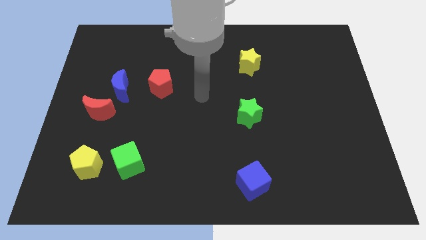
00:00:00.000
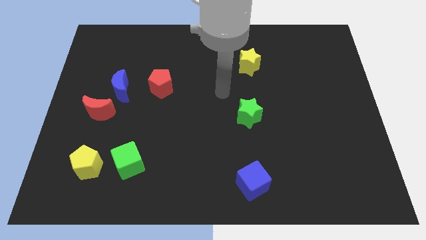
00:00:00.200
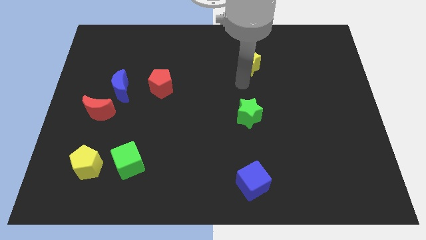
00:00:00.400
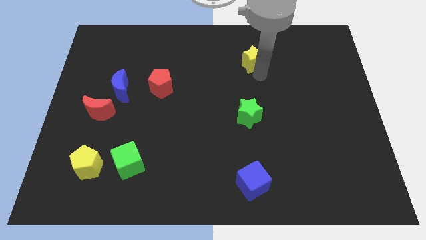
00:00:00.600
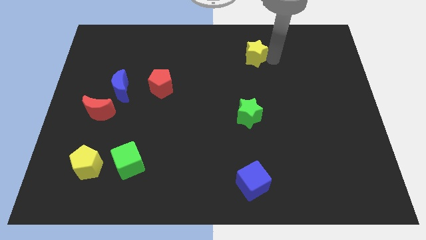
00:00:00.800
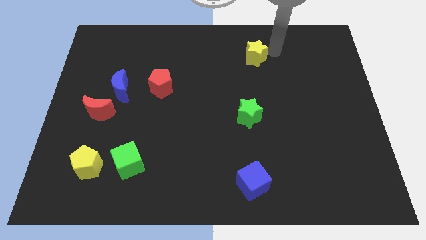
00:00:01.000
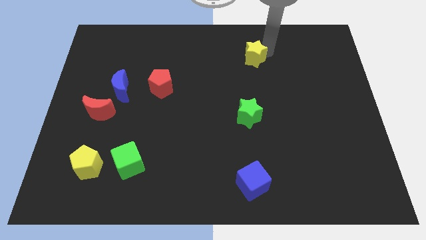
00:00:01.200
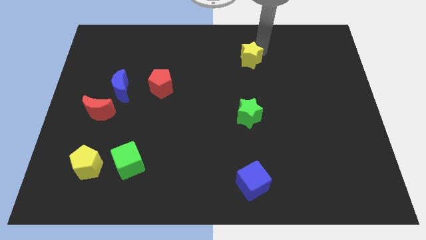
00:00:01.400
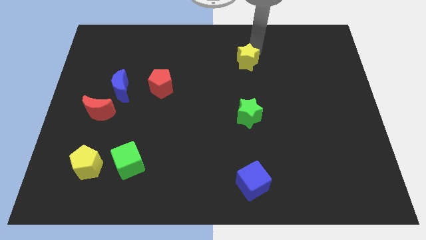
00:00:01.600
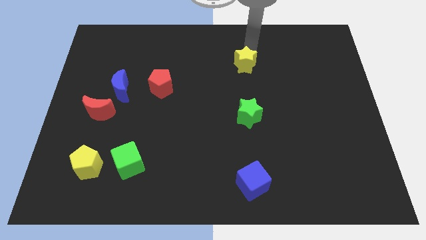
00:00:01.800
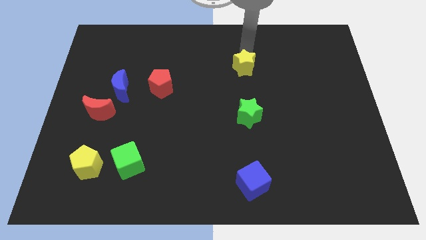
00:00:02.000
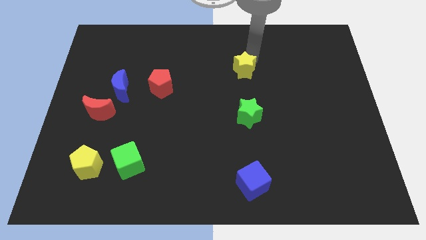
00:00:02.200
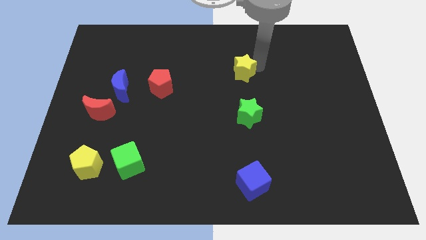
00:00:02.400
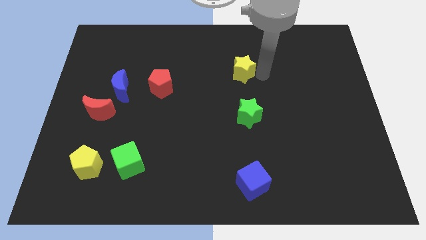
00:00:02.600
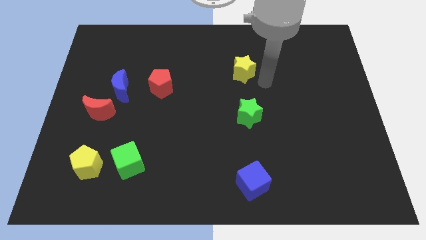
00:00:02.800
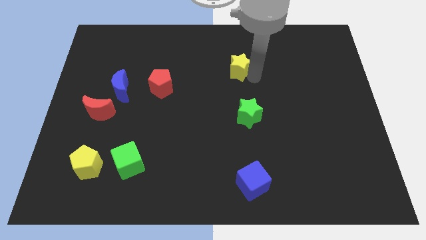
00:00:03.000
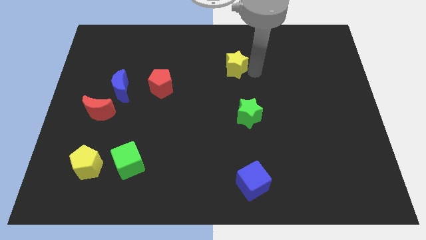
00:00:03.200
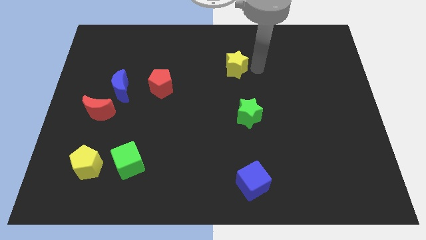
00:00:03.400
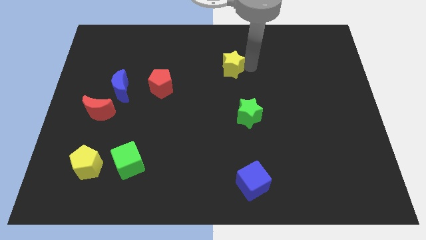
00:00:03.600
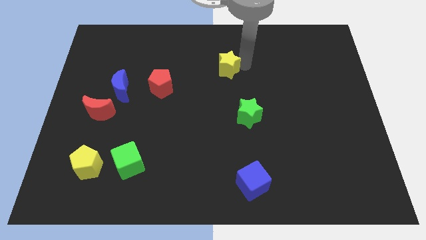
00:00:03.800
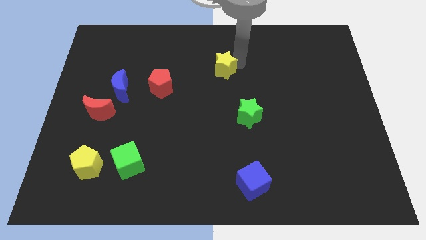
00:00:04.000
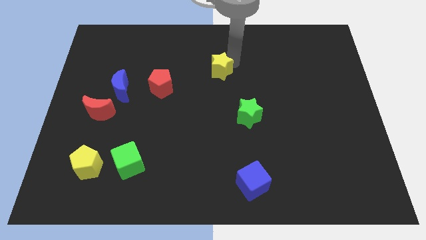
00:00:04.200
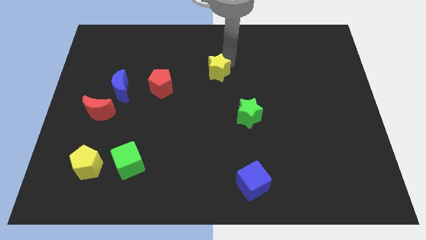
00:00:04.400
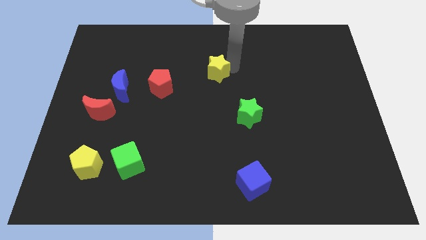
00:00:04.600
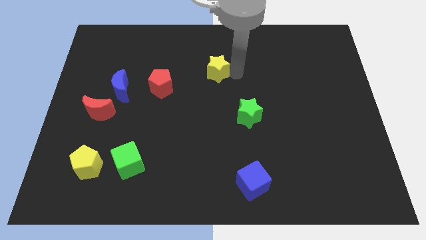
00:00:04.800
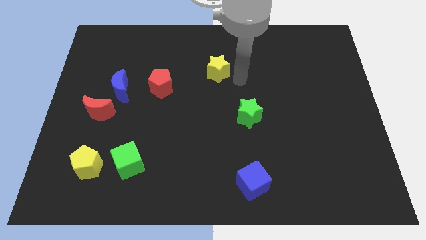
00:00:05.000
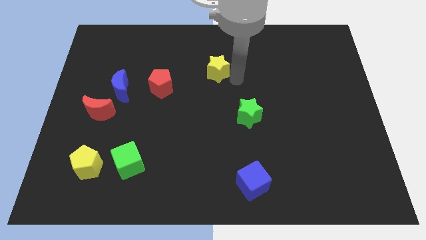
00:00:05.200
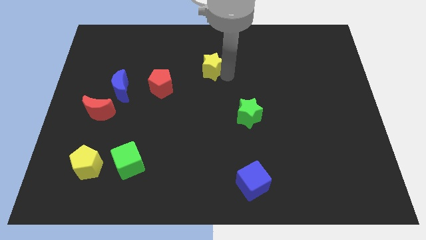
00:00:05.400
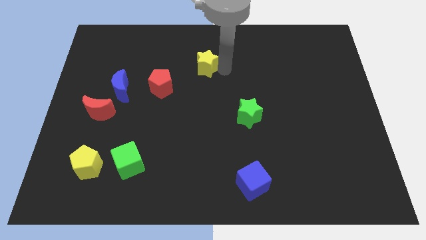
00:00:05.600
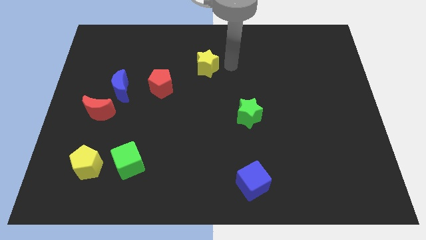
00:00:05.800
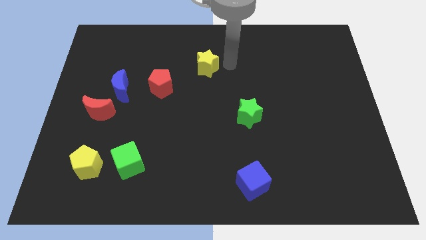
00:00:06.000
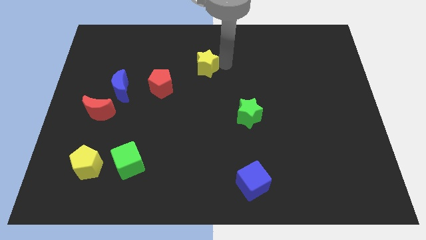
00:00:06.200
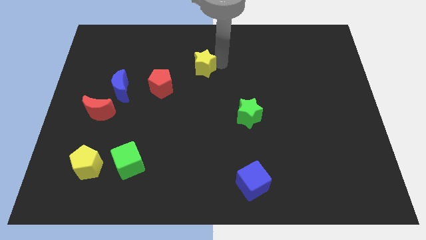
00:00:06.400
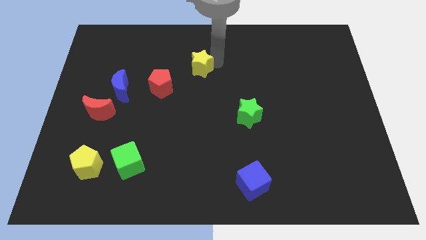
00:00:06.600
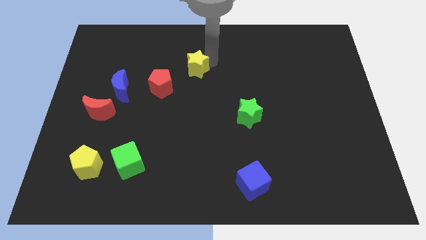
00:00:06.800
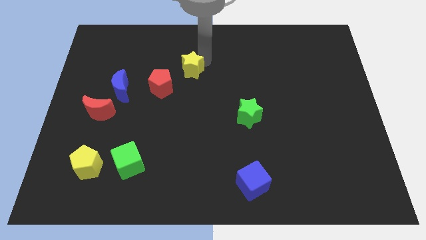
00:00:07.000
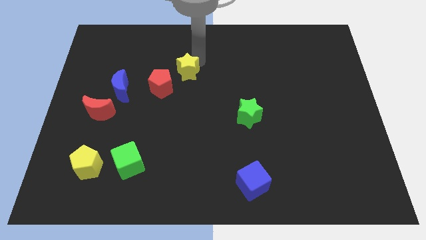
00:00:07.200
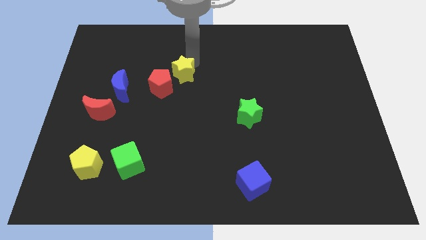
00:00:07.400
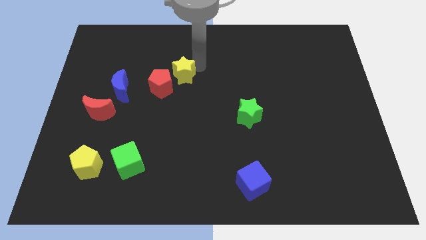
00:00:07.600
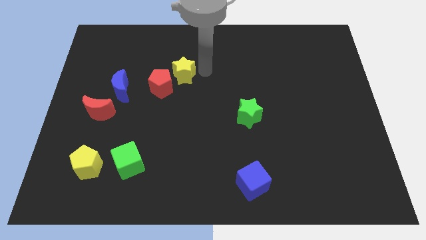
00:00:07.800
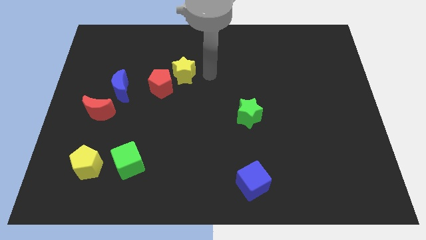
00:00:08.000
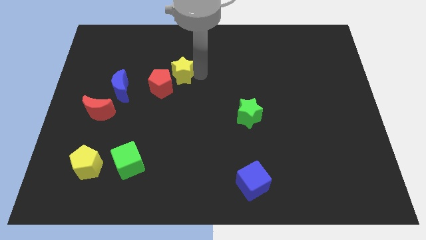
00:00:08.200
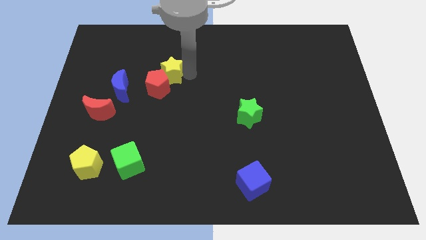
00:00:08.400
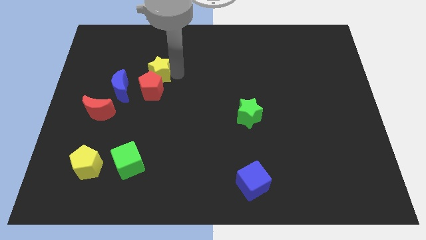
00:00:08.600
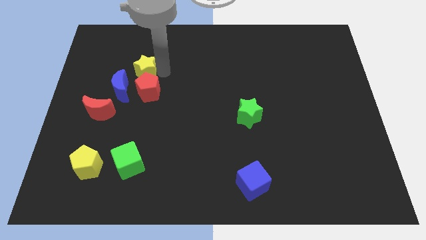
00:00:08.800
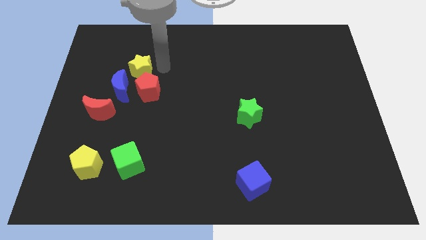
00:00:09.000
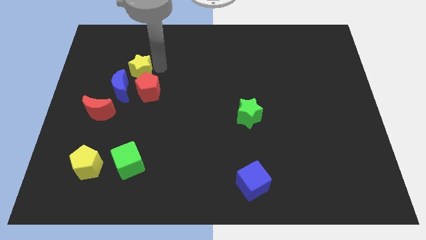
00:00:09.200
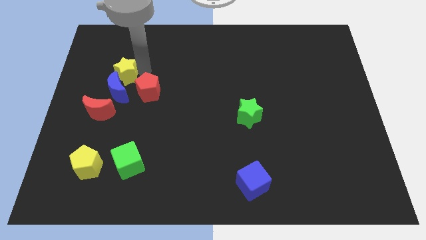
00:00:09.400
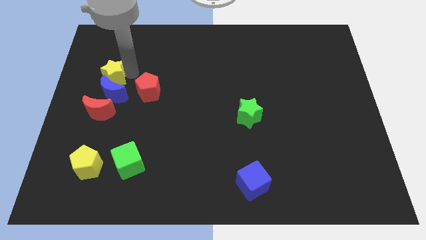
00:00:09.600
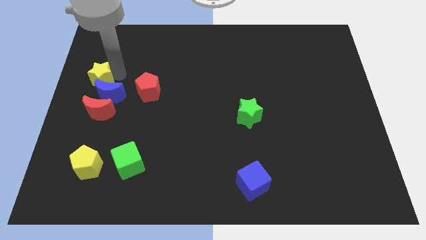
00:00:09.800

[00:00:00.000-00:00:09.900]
push the yellow star to the center left

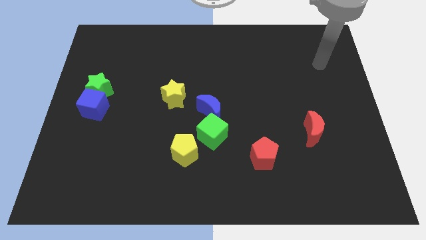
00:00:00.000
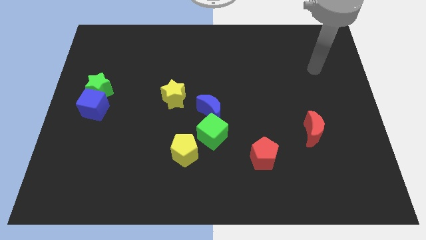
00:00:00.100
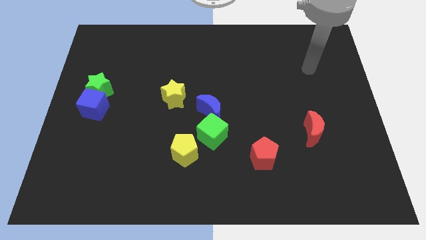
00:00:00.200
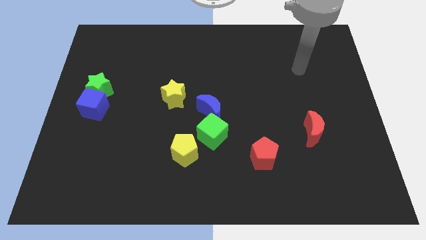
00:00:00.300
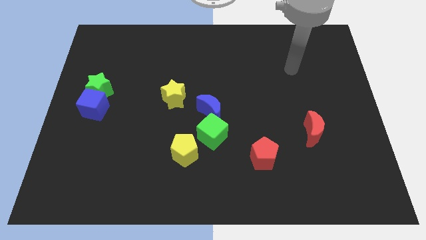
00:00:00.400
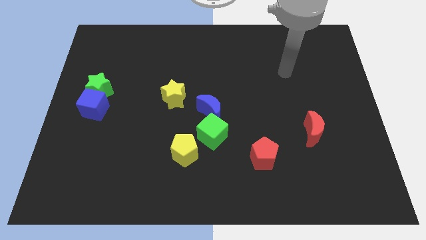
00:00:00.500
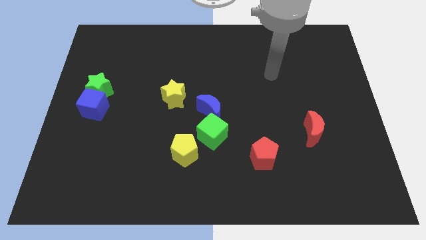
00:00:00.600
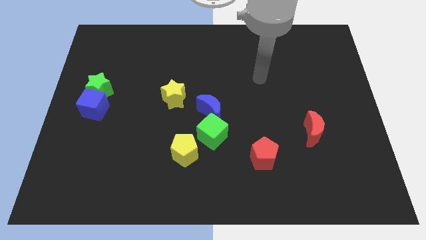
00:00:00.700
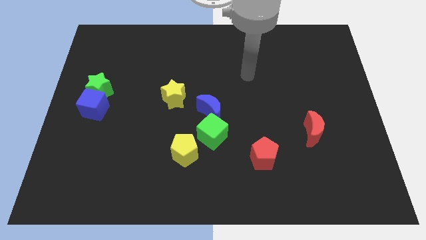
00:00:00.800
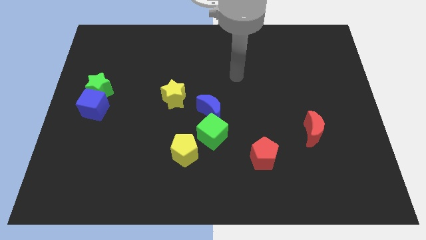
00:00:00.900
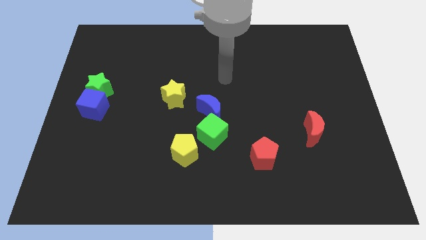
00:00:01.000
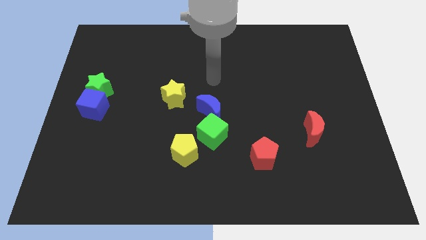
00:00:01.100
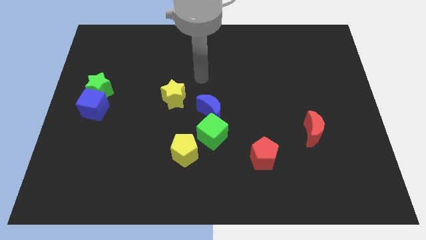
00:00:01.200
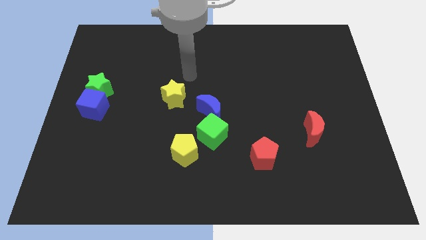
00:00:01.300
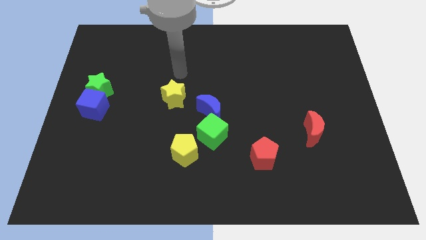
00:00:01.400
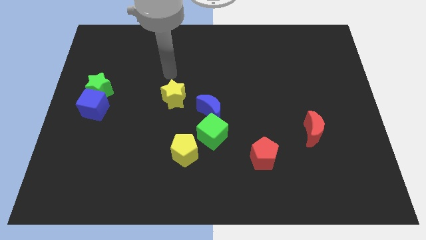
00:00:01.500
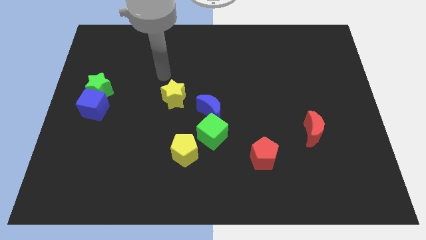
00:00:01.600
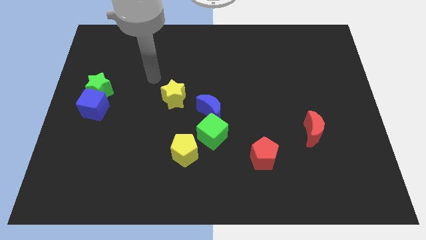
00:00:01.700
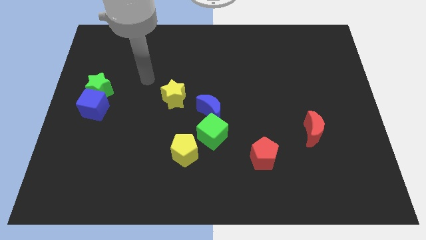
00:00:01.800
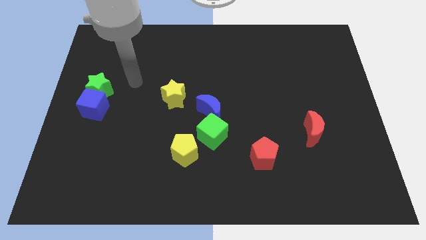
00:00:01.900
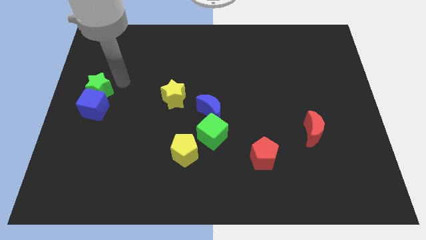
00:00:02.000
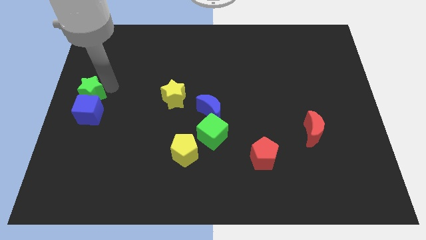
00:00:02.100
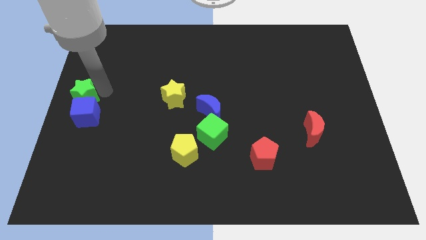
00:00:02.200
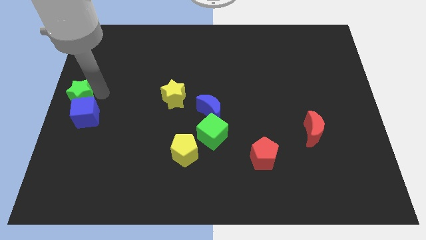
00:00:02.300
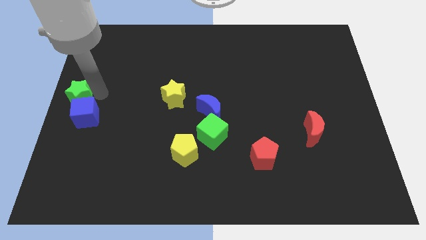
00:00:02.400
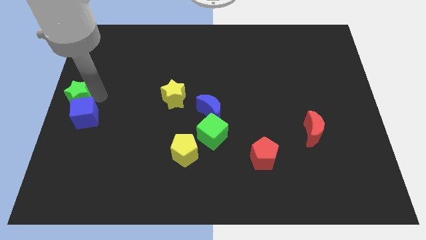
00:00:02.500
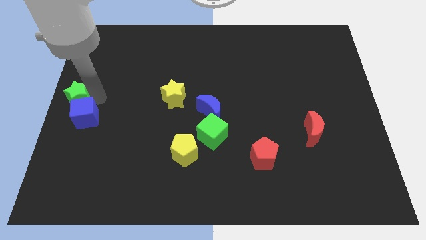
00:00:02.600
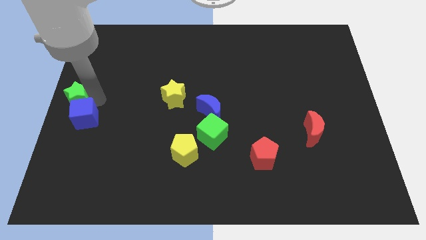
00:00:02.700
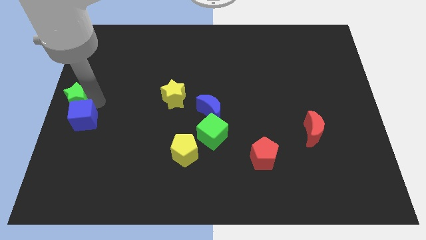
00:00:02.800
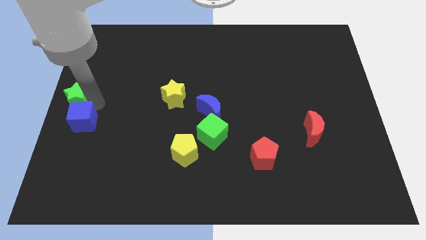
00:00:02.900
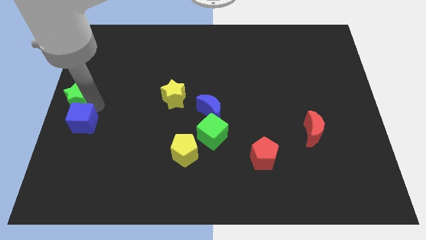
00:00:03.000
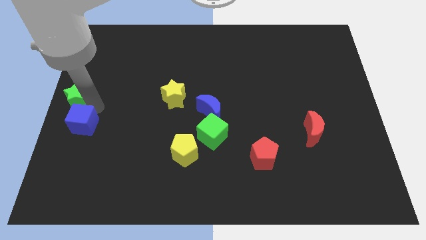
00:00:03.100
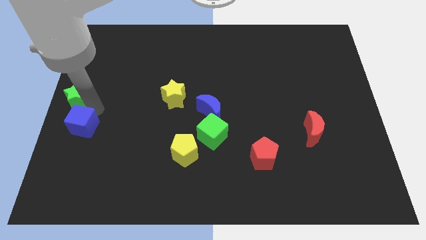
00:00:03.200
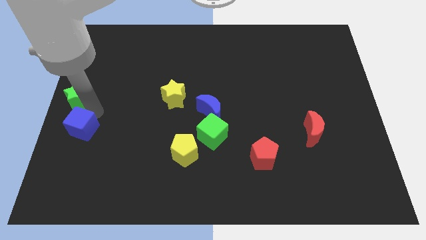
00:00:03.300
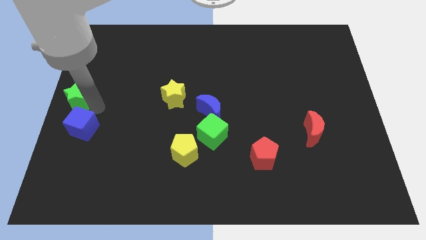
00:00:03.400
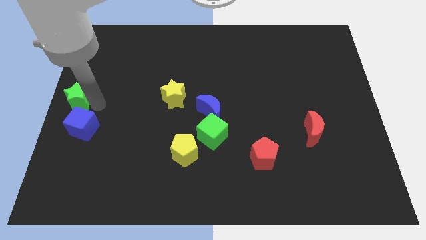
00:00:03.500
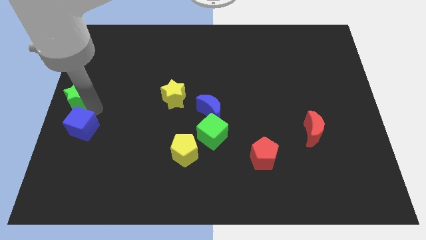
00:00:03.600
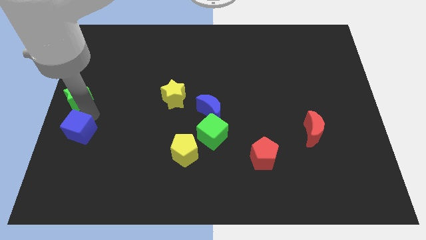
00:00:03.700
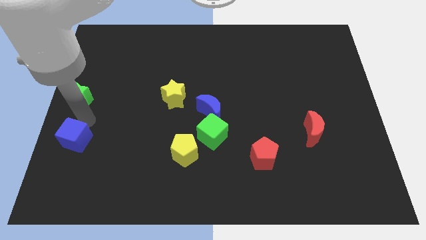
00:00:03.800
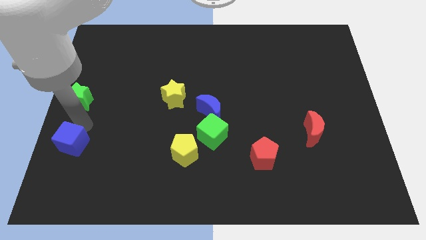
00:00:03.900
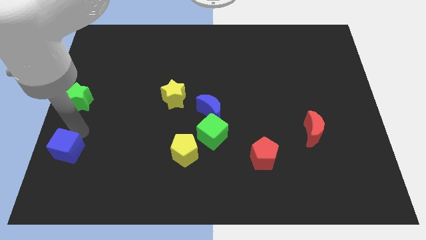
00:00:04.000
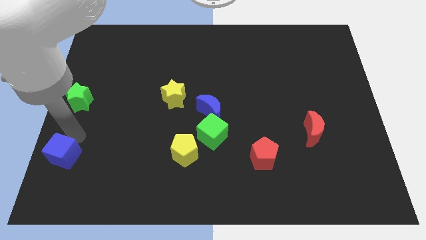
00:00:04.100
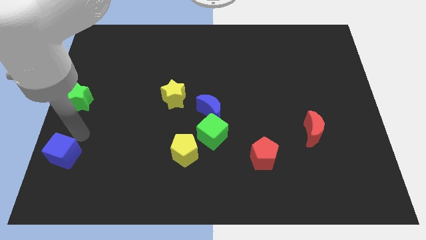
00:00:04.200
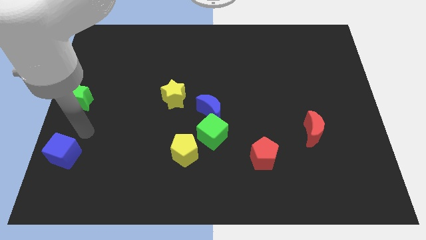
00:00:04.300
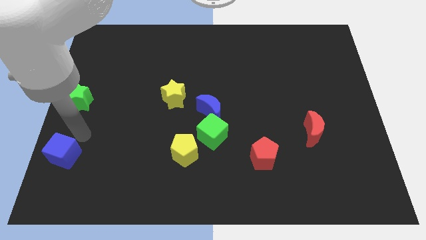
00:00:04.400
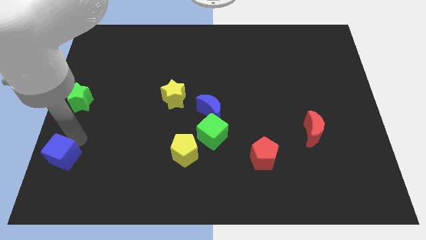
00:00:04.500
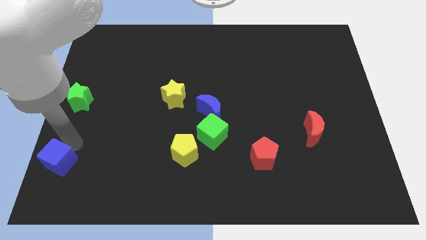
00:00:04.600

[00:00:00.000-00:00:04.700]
move the blue cube to the lower left corner
